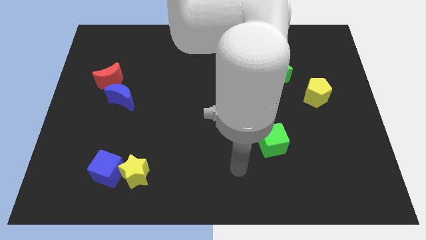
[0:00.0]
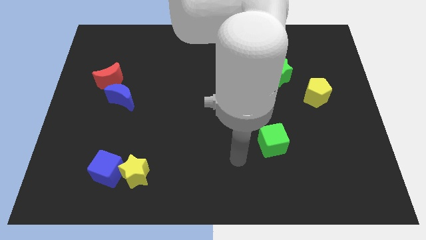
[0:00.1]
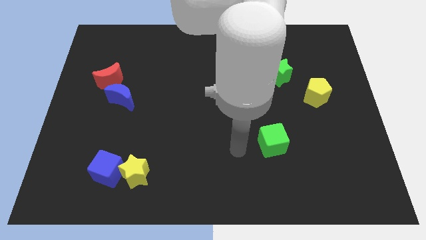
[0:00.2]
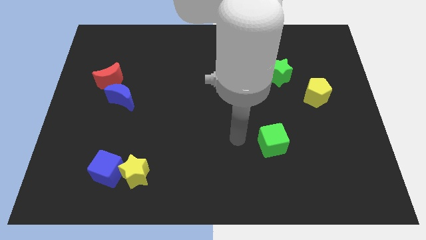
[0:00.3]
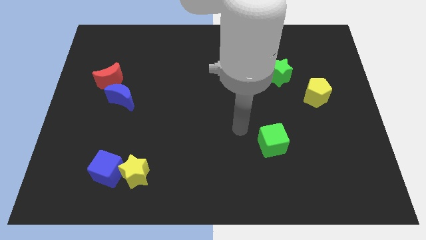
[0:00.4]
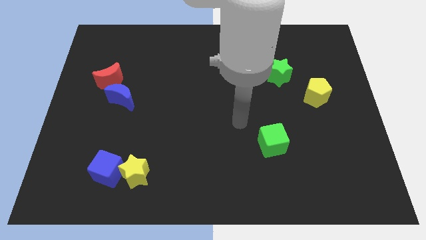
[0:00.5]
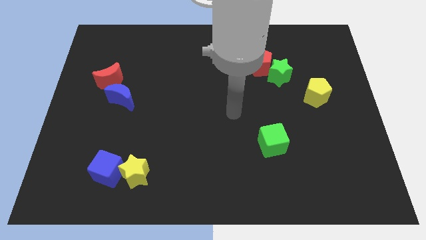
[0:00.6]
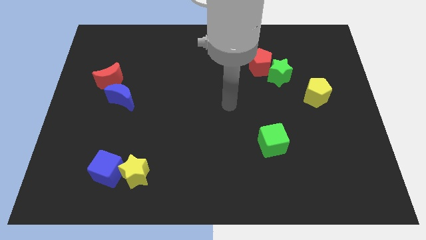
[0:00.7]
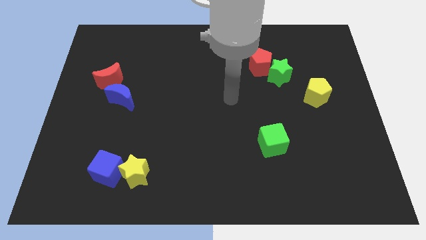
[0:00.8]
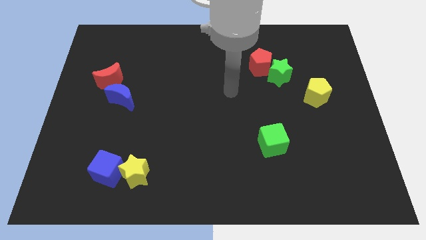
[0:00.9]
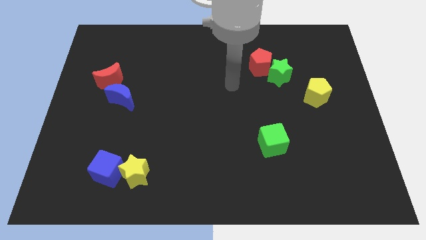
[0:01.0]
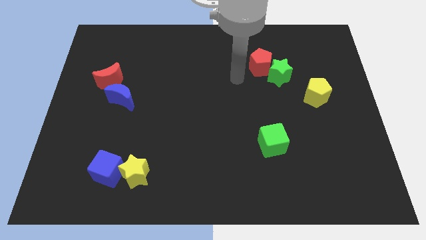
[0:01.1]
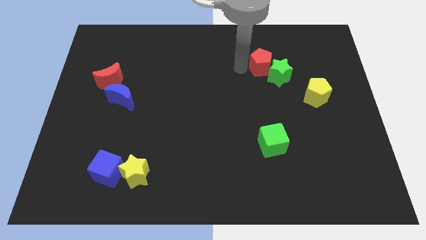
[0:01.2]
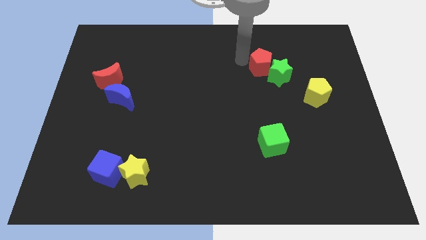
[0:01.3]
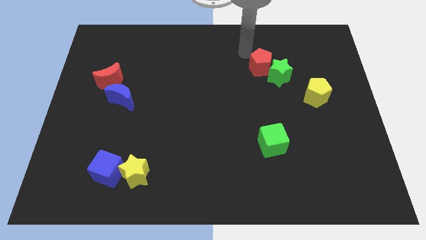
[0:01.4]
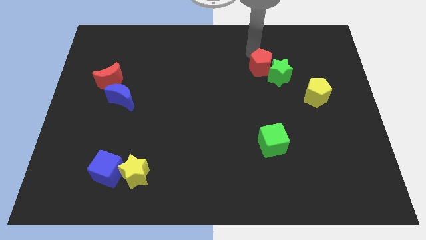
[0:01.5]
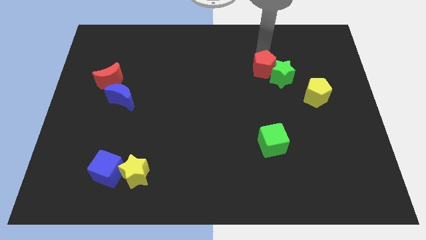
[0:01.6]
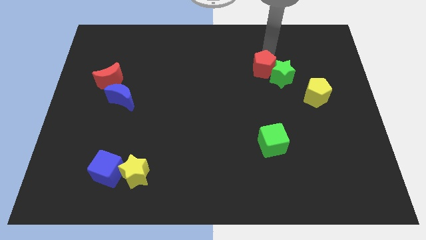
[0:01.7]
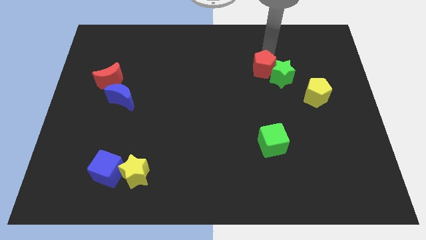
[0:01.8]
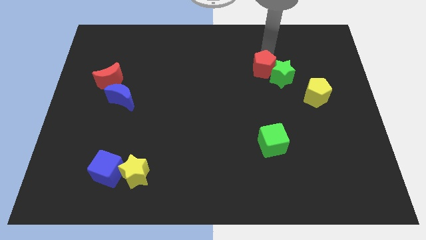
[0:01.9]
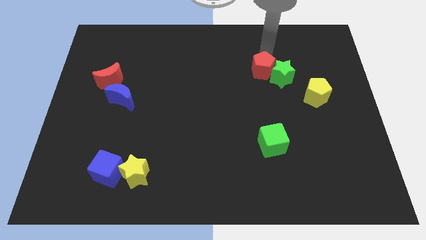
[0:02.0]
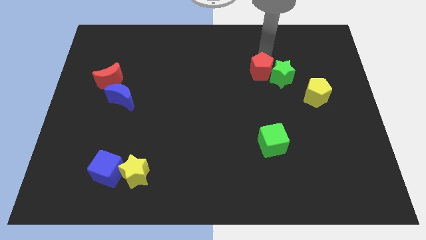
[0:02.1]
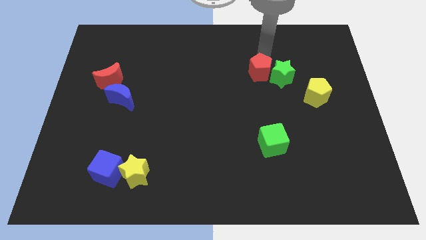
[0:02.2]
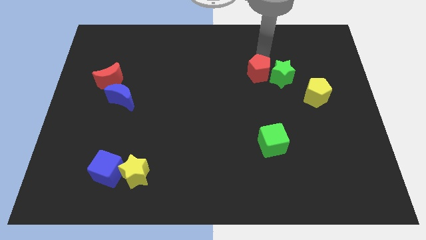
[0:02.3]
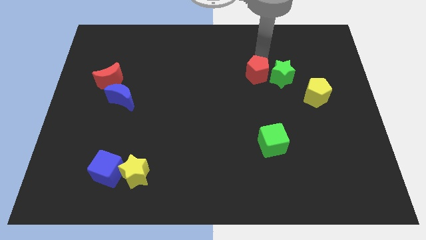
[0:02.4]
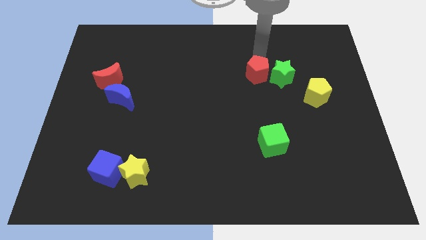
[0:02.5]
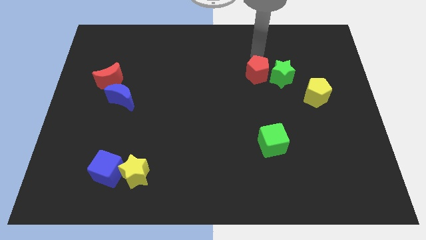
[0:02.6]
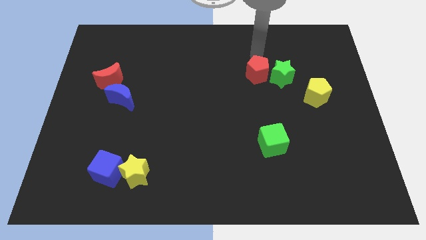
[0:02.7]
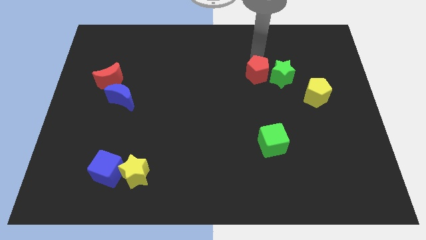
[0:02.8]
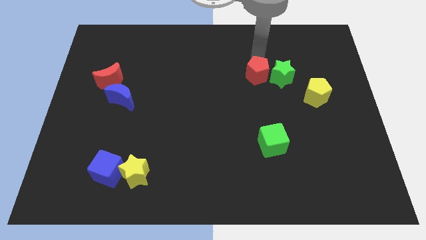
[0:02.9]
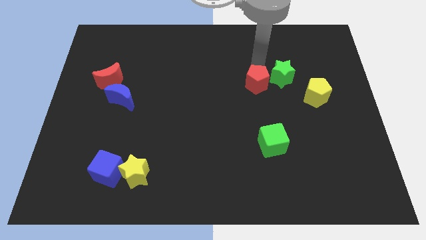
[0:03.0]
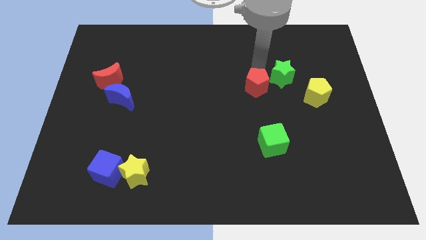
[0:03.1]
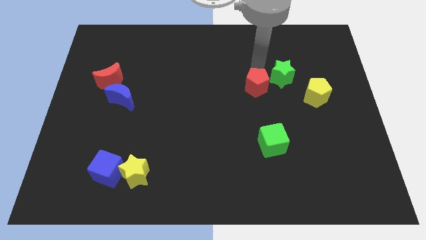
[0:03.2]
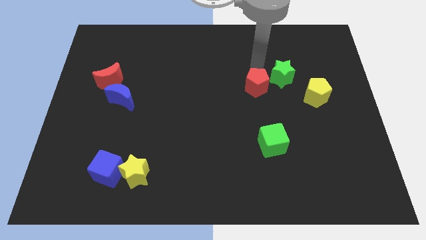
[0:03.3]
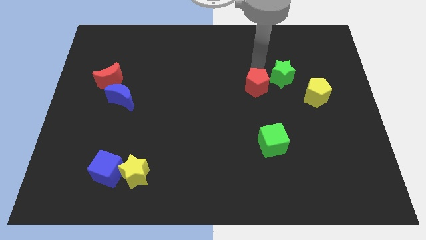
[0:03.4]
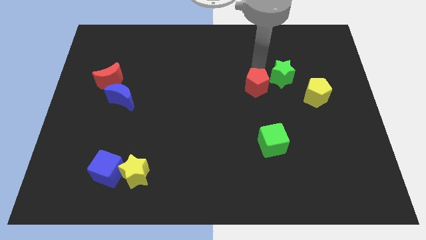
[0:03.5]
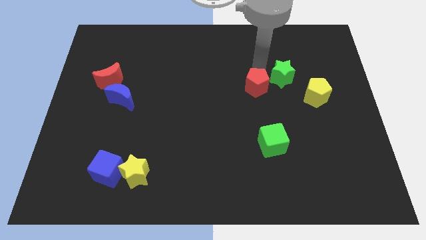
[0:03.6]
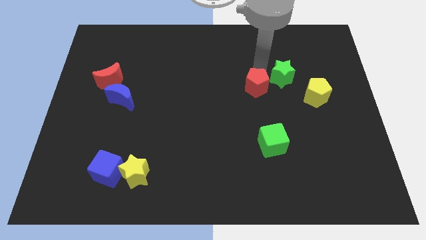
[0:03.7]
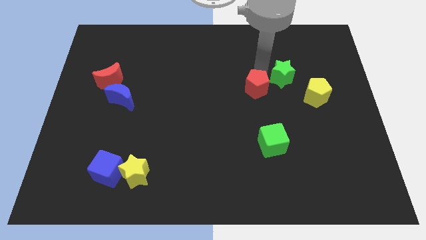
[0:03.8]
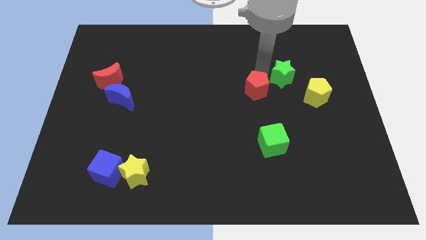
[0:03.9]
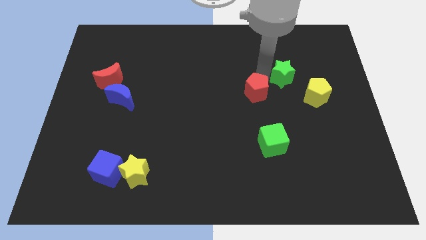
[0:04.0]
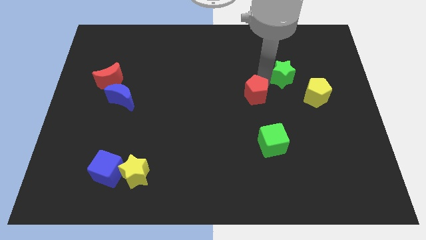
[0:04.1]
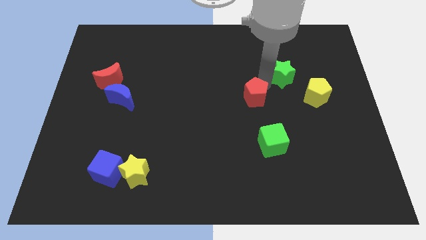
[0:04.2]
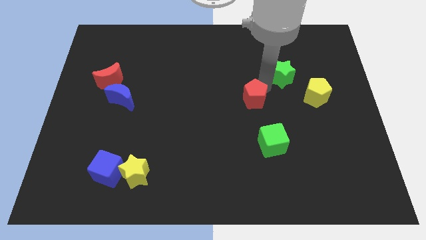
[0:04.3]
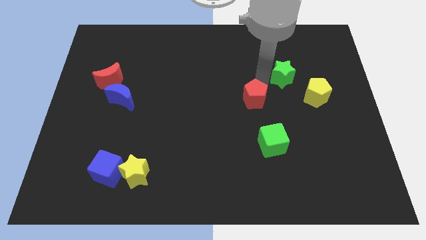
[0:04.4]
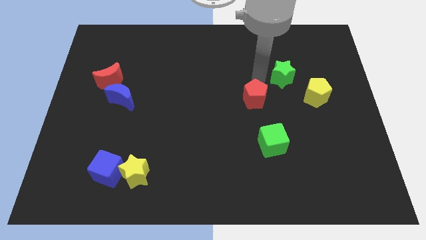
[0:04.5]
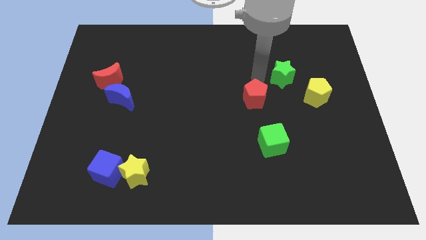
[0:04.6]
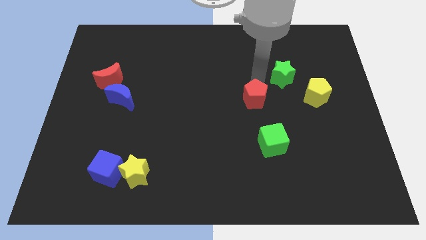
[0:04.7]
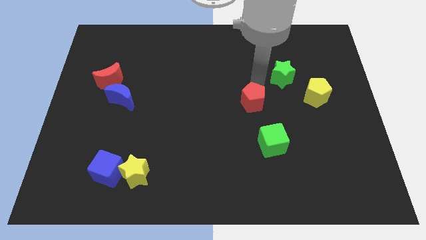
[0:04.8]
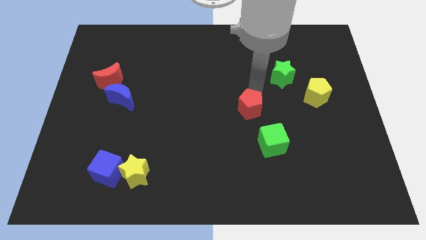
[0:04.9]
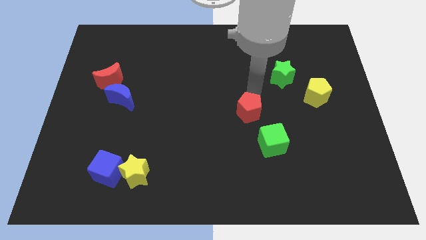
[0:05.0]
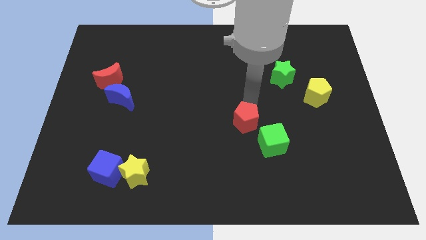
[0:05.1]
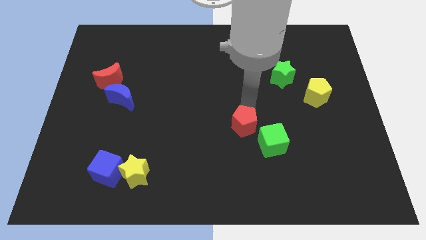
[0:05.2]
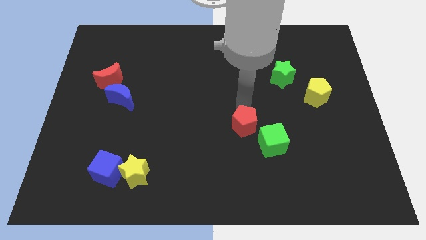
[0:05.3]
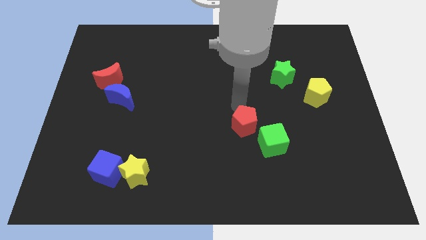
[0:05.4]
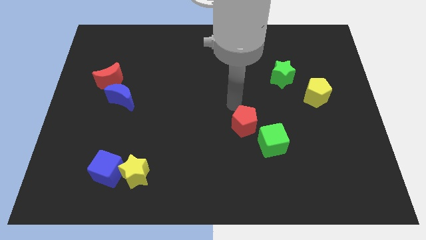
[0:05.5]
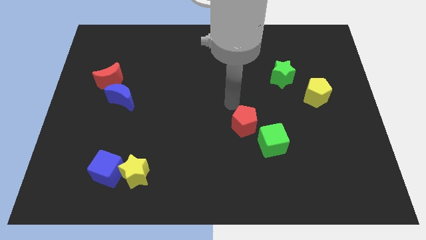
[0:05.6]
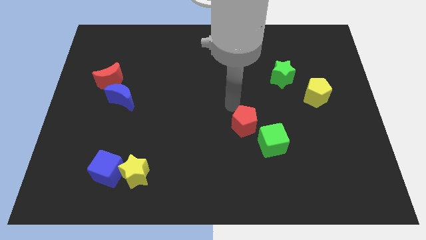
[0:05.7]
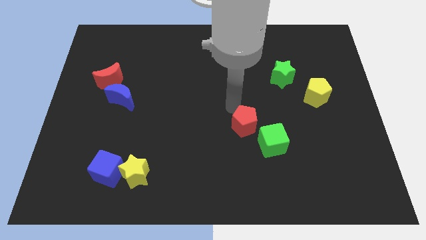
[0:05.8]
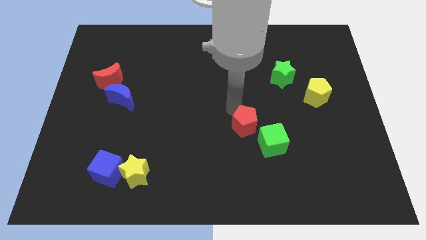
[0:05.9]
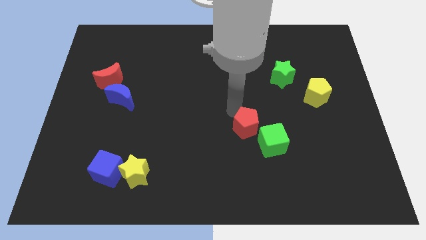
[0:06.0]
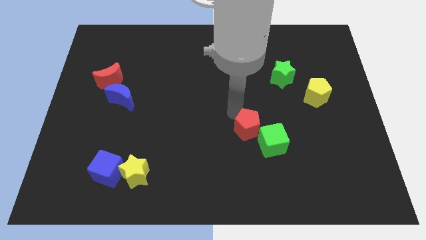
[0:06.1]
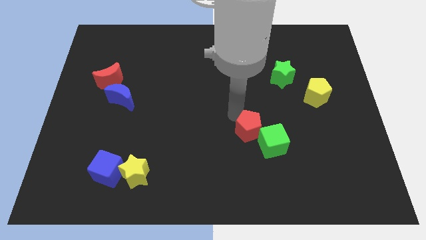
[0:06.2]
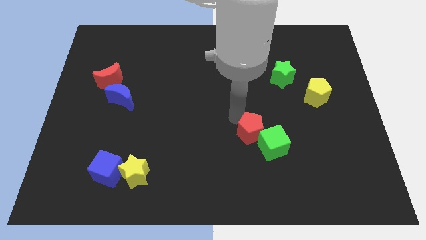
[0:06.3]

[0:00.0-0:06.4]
slide the red pentagon down

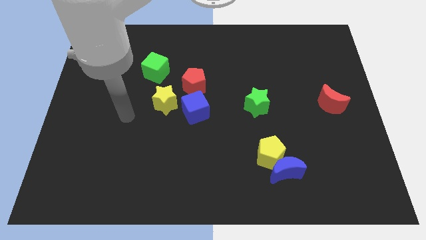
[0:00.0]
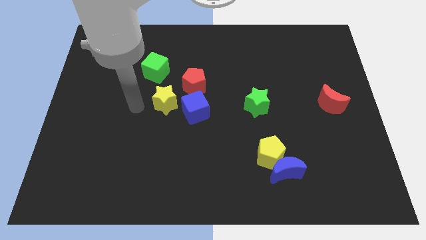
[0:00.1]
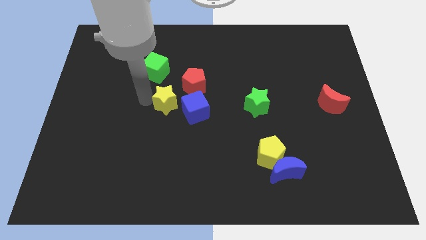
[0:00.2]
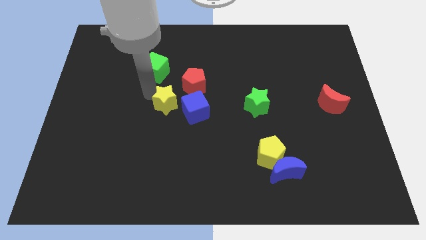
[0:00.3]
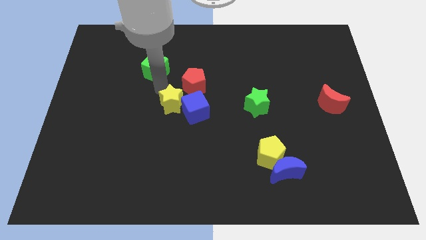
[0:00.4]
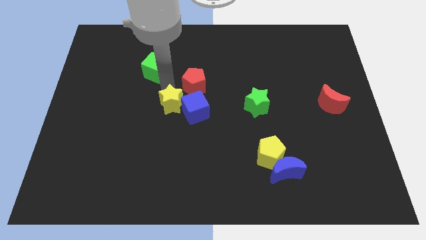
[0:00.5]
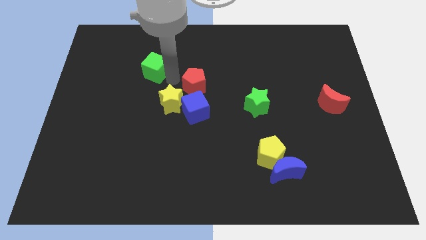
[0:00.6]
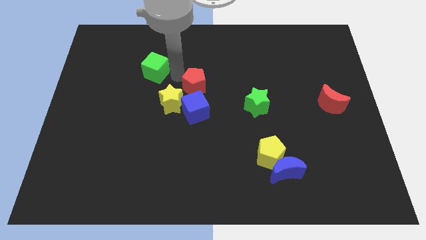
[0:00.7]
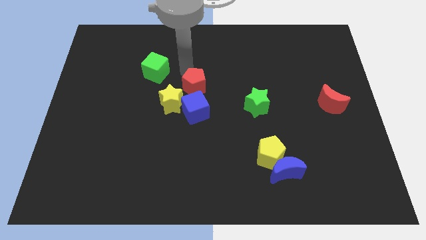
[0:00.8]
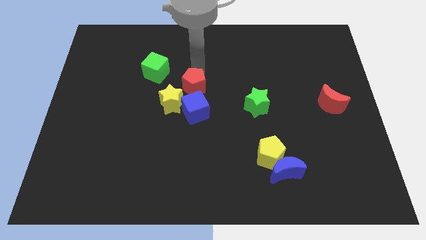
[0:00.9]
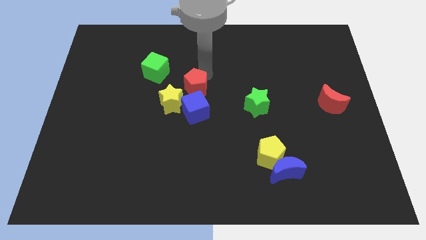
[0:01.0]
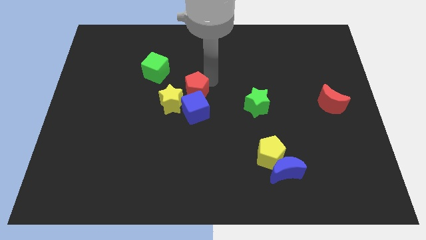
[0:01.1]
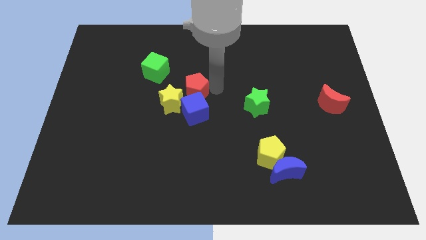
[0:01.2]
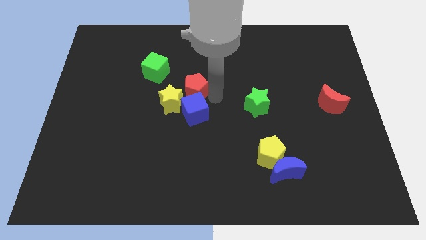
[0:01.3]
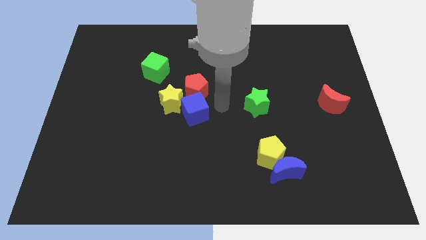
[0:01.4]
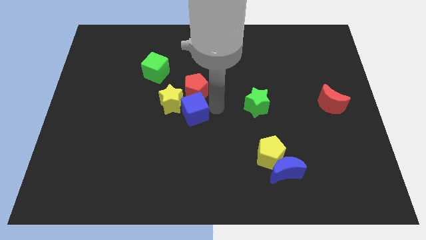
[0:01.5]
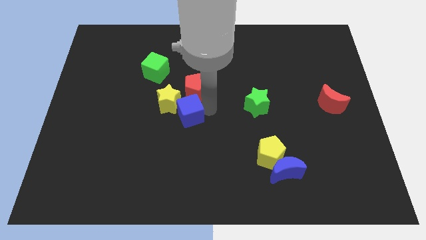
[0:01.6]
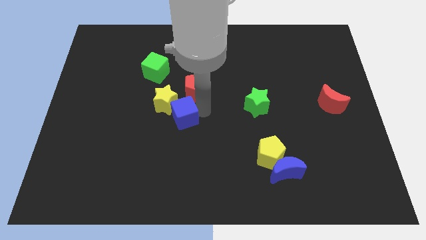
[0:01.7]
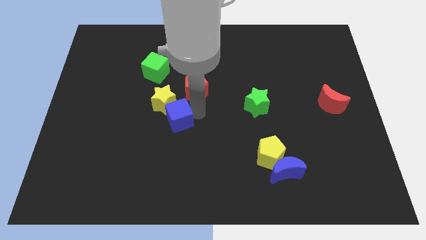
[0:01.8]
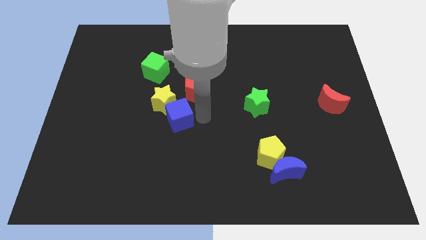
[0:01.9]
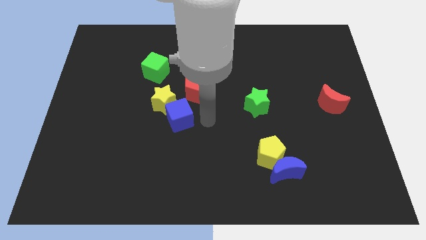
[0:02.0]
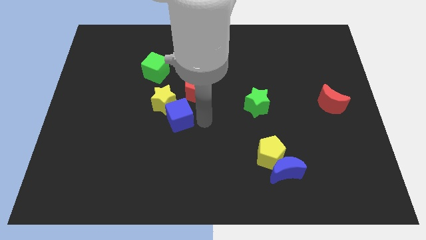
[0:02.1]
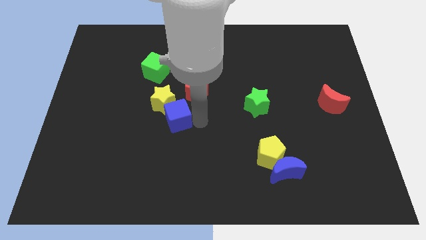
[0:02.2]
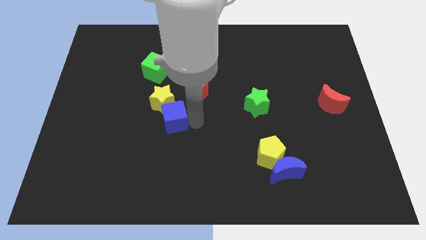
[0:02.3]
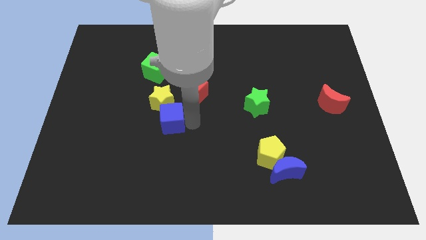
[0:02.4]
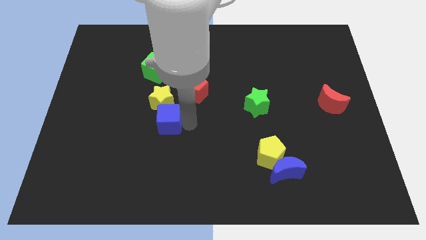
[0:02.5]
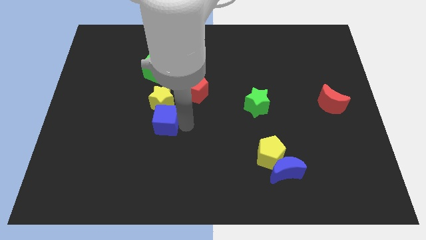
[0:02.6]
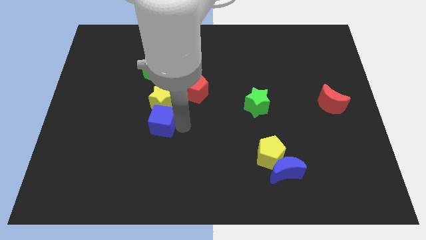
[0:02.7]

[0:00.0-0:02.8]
slide the blue cube slightly to the left
